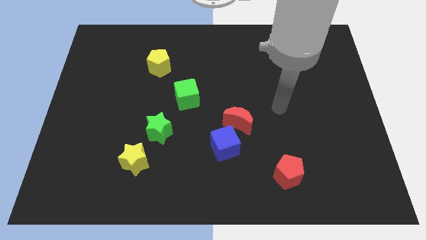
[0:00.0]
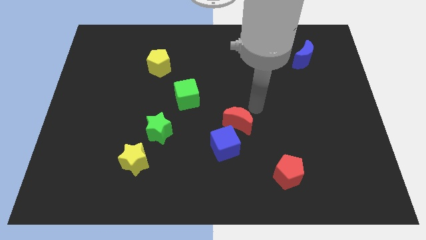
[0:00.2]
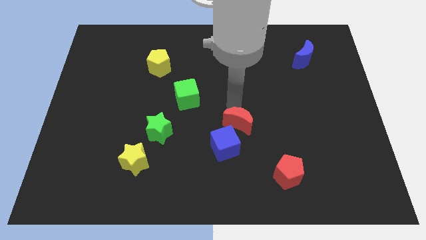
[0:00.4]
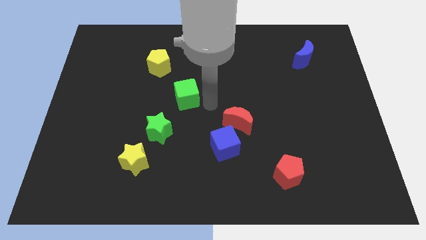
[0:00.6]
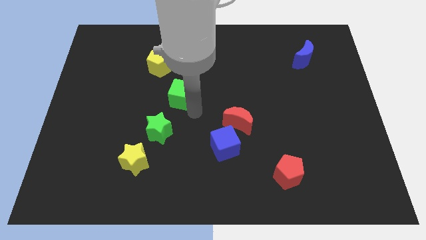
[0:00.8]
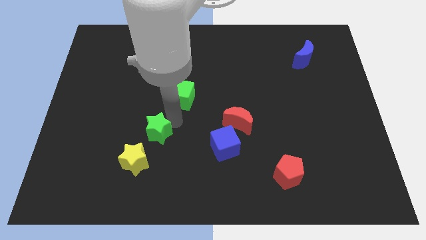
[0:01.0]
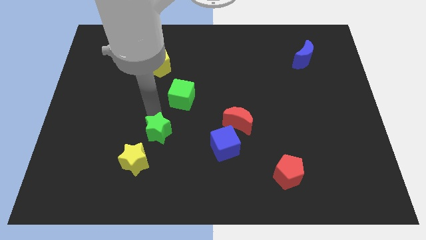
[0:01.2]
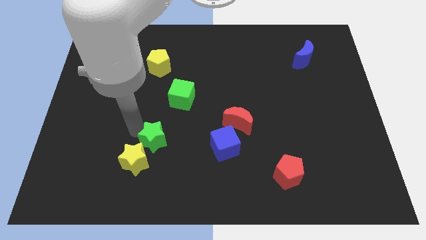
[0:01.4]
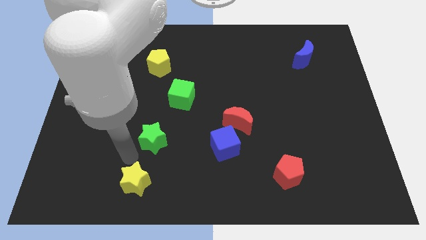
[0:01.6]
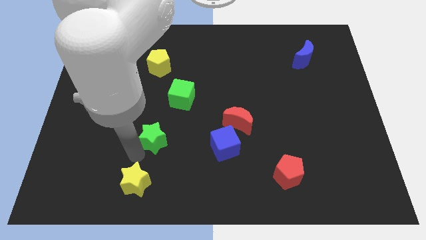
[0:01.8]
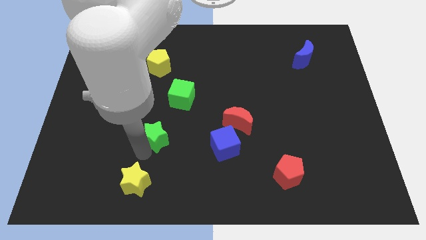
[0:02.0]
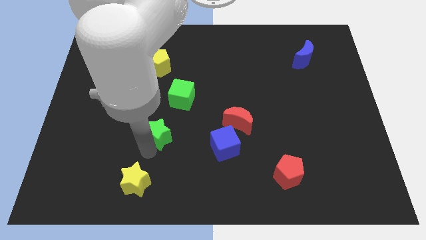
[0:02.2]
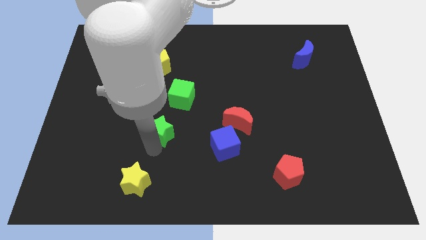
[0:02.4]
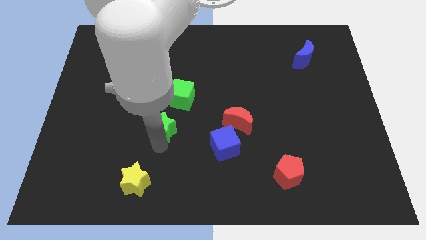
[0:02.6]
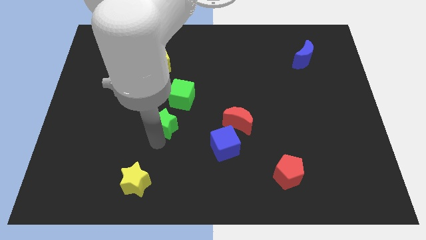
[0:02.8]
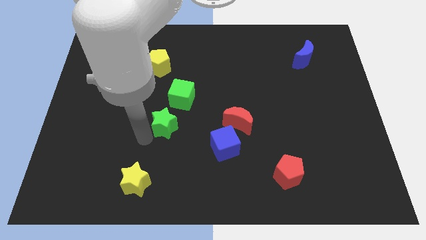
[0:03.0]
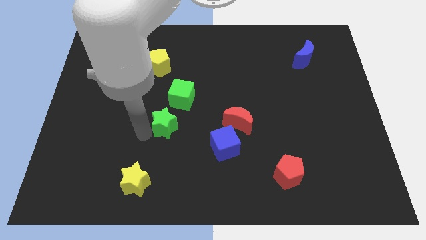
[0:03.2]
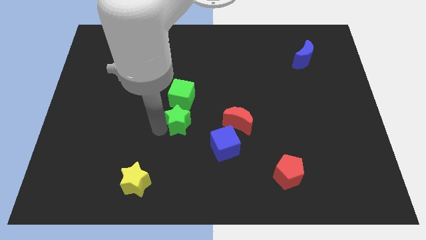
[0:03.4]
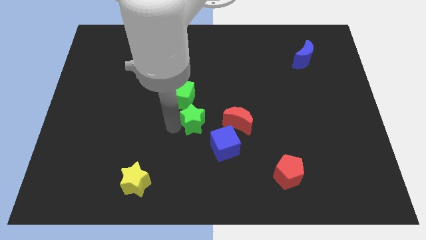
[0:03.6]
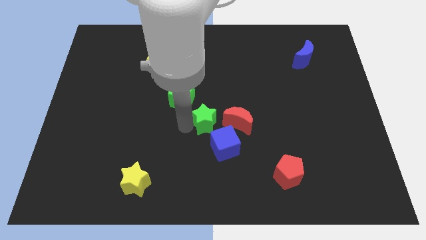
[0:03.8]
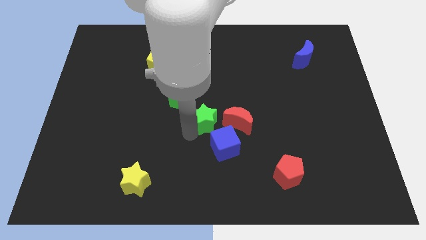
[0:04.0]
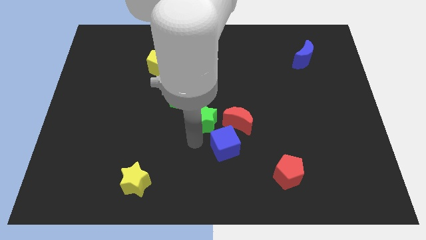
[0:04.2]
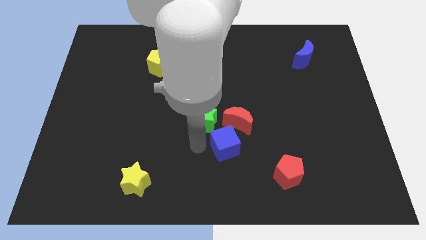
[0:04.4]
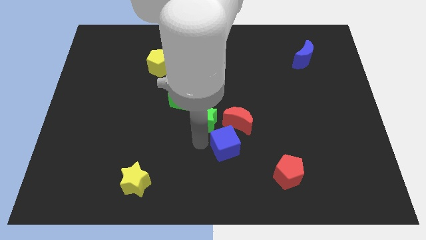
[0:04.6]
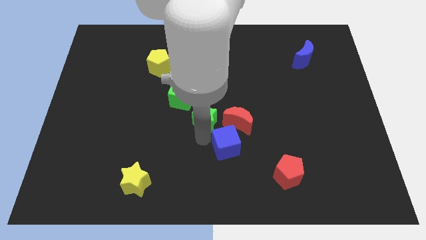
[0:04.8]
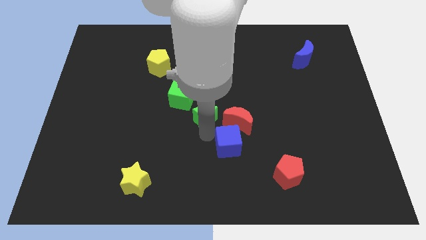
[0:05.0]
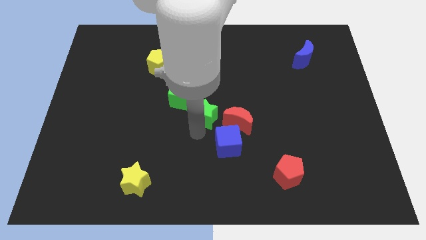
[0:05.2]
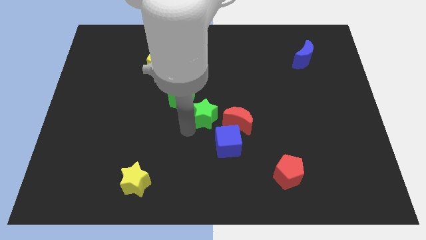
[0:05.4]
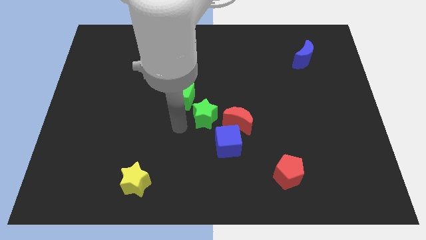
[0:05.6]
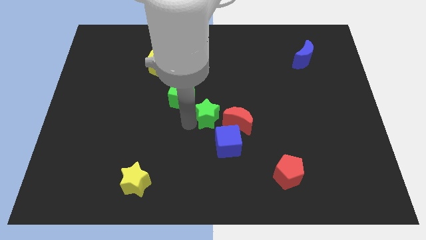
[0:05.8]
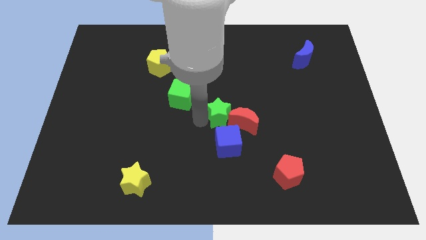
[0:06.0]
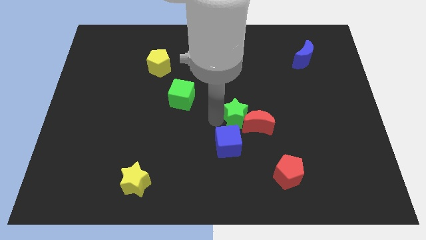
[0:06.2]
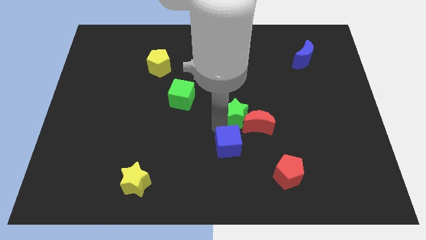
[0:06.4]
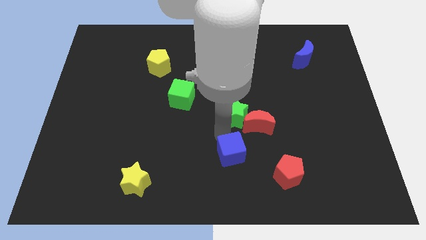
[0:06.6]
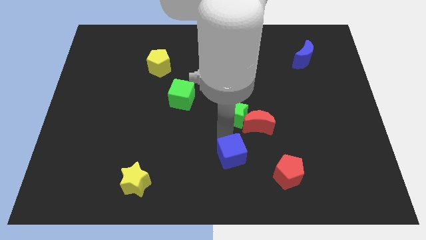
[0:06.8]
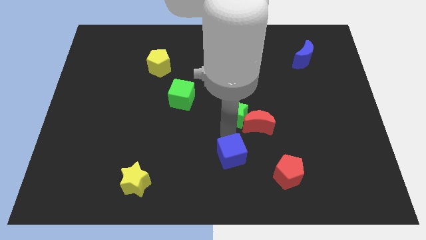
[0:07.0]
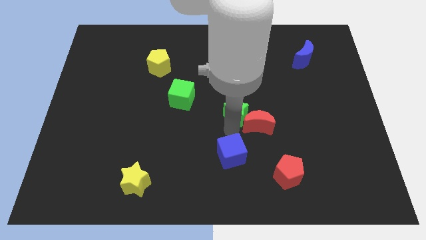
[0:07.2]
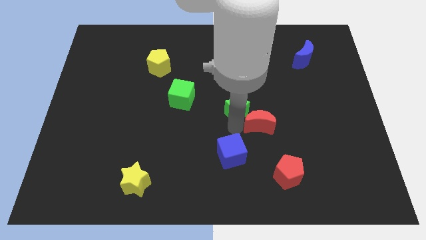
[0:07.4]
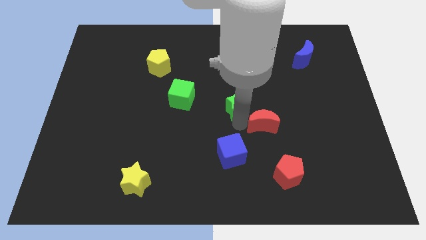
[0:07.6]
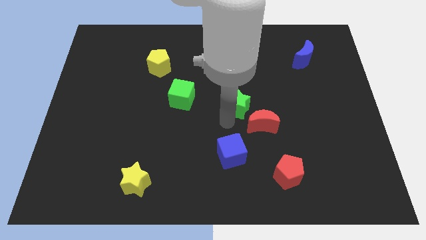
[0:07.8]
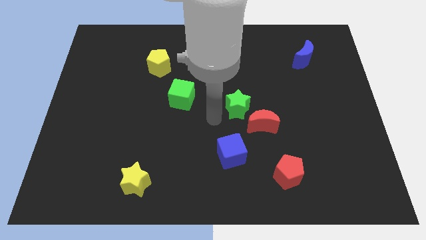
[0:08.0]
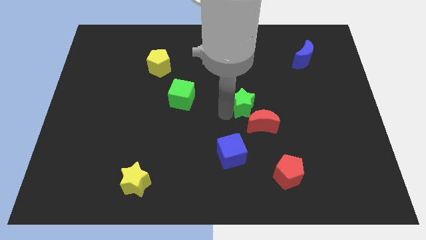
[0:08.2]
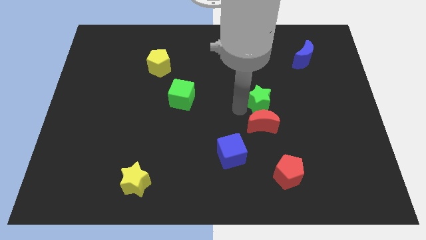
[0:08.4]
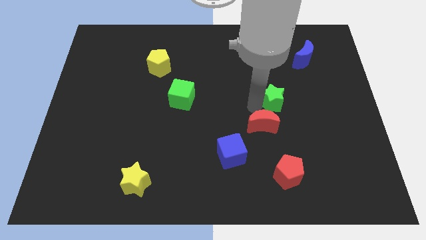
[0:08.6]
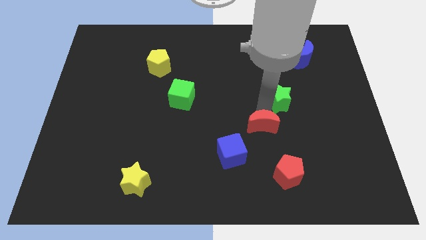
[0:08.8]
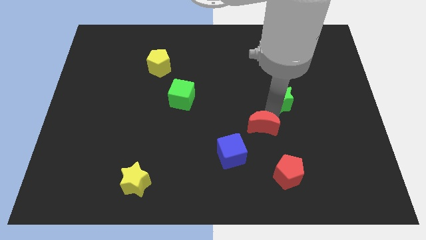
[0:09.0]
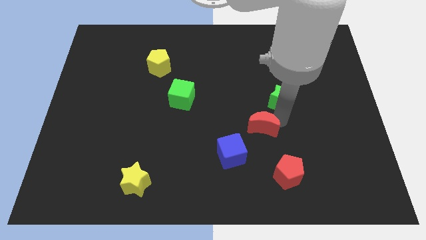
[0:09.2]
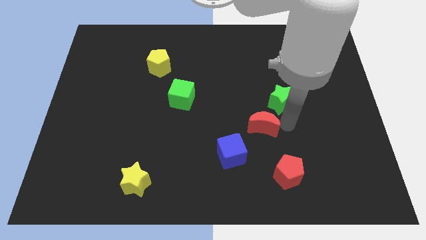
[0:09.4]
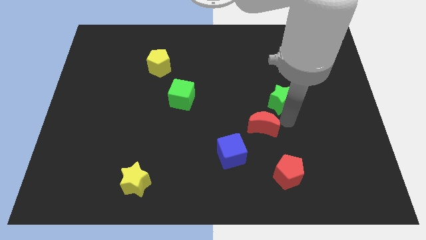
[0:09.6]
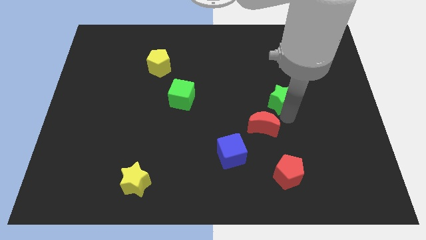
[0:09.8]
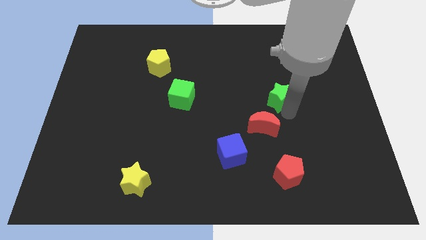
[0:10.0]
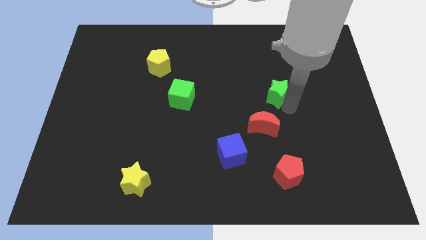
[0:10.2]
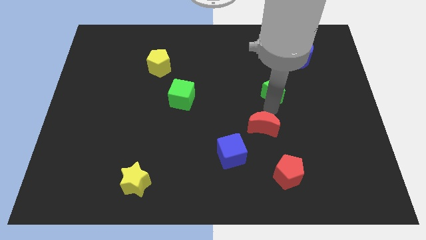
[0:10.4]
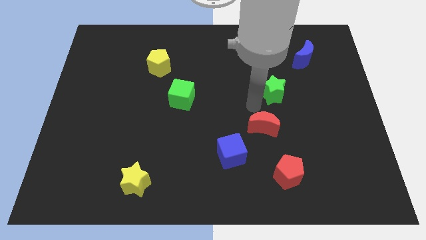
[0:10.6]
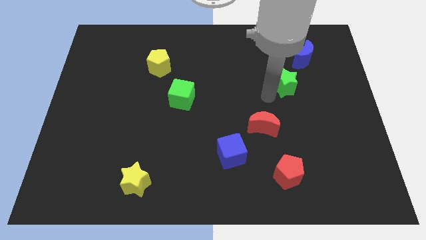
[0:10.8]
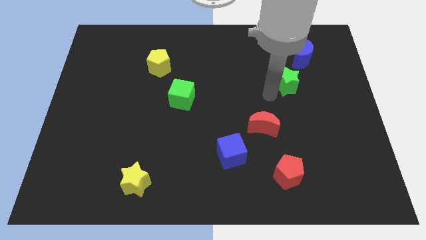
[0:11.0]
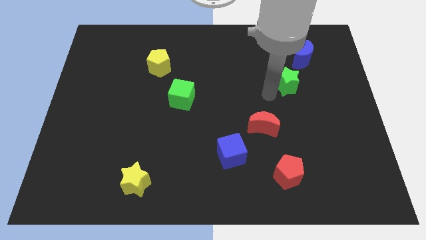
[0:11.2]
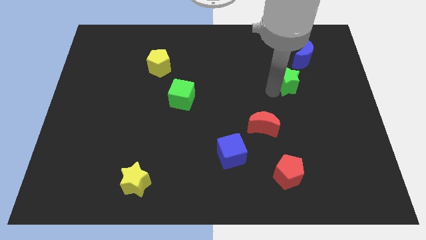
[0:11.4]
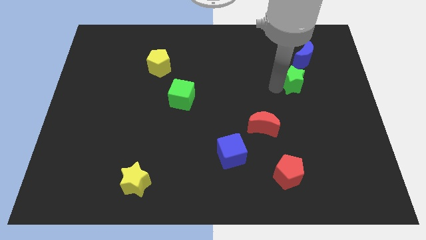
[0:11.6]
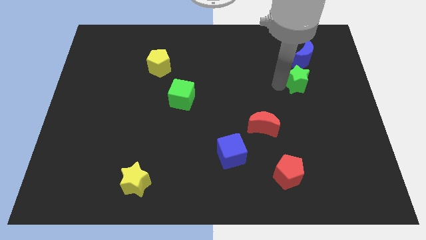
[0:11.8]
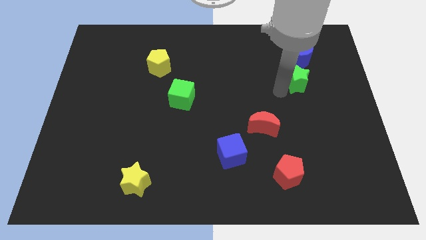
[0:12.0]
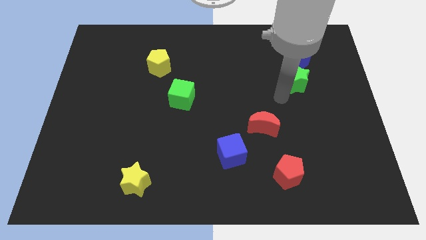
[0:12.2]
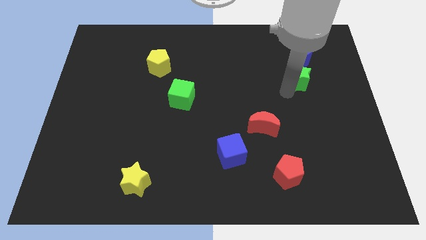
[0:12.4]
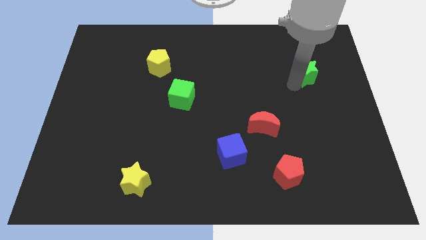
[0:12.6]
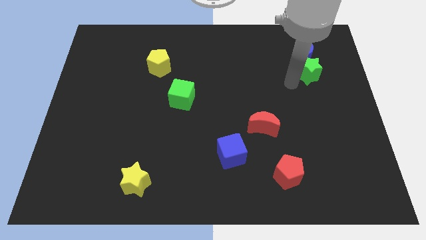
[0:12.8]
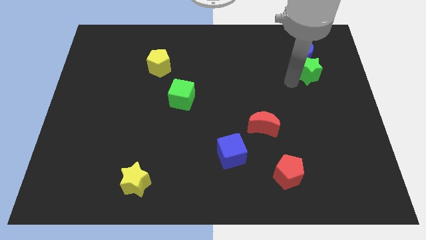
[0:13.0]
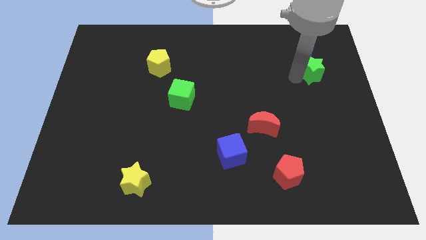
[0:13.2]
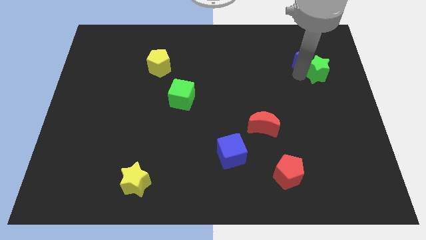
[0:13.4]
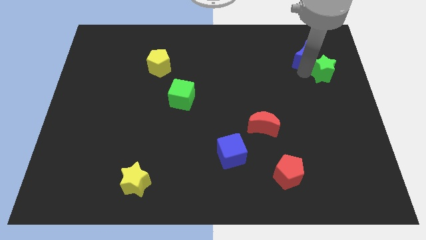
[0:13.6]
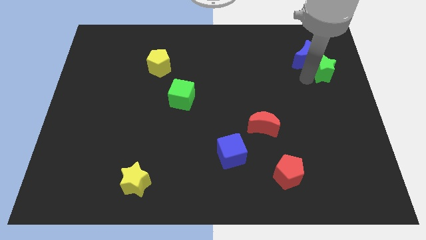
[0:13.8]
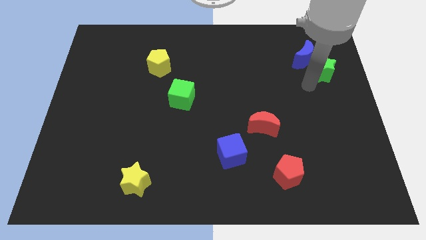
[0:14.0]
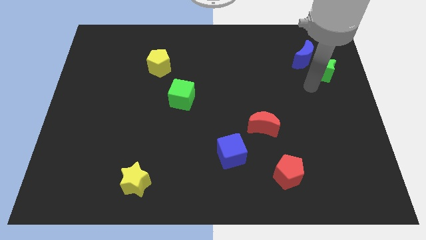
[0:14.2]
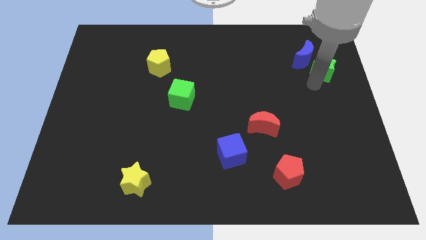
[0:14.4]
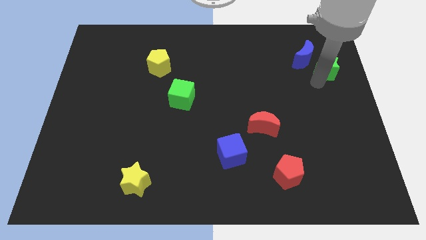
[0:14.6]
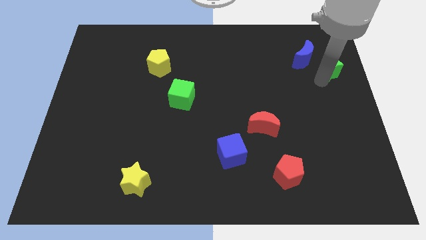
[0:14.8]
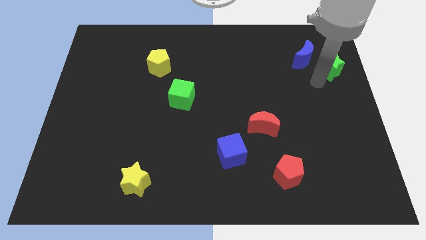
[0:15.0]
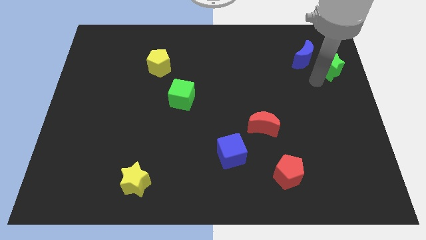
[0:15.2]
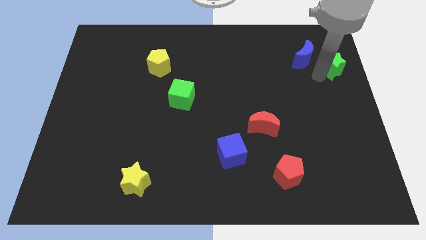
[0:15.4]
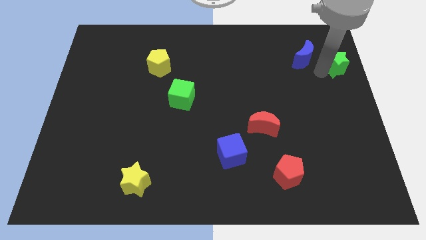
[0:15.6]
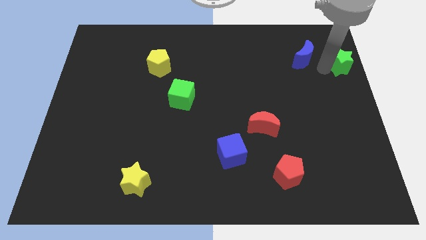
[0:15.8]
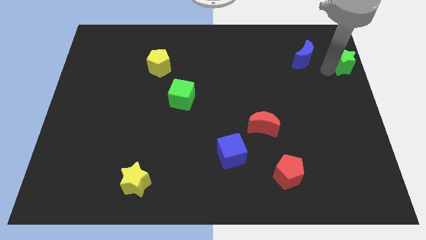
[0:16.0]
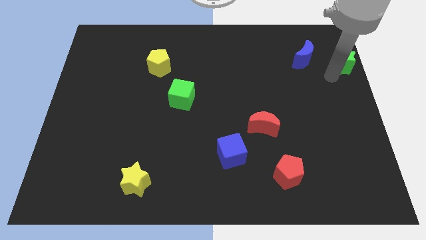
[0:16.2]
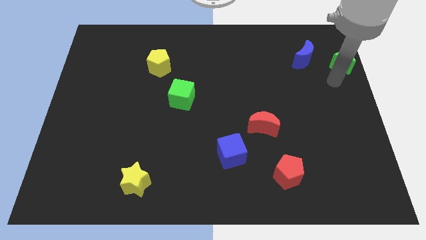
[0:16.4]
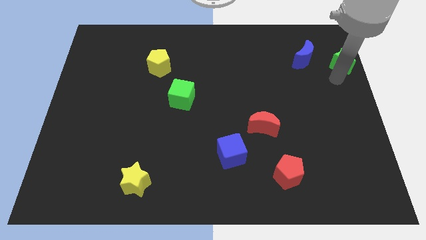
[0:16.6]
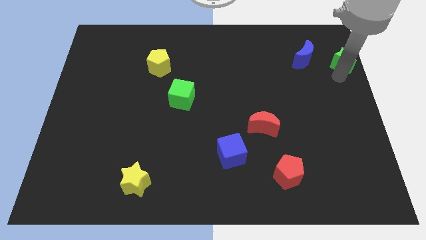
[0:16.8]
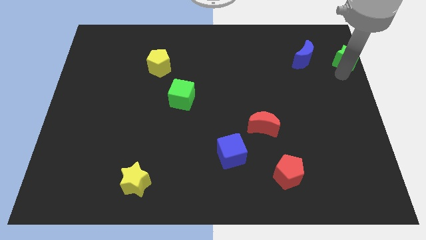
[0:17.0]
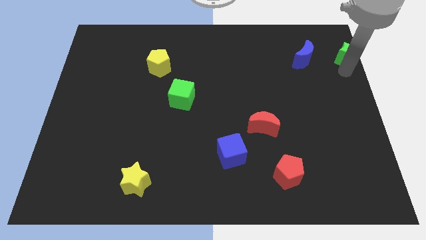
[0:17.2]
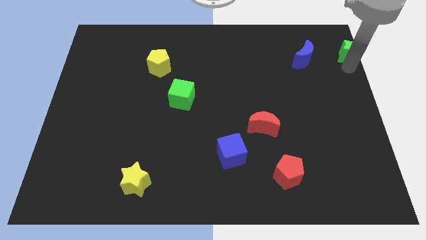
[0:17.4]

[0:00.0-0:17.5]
push the green star to the top right
